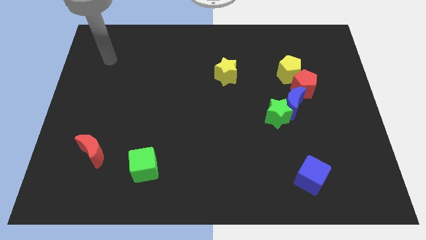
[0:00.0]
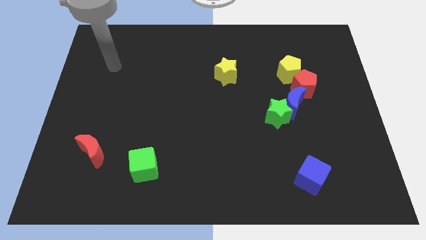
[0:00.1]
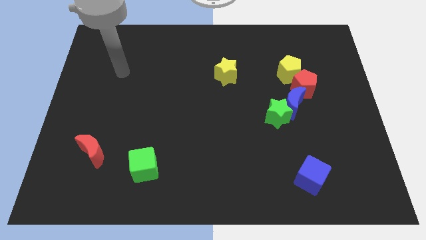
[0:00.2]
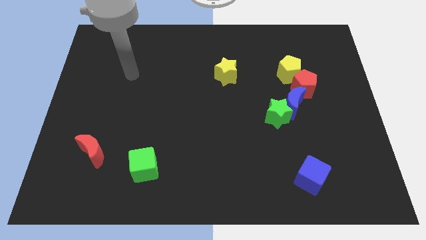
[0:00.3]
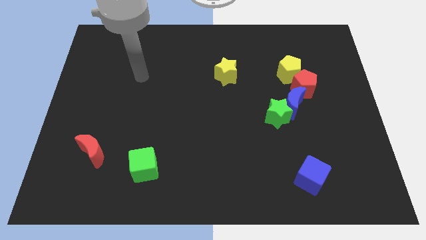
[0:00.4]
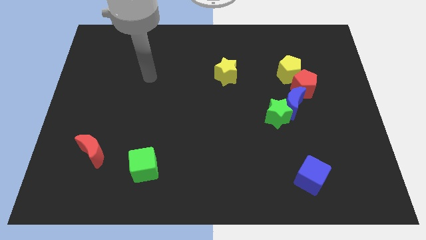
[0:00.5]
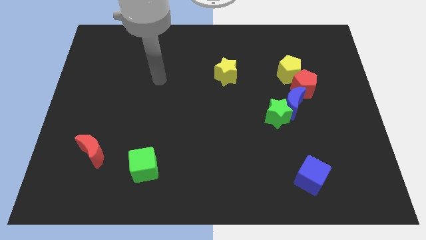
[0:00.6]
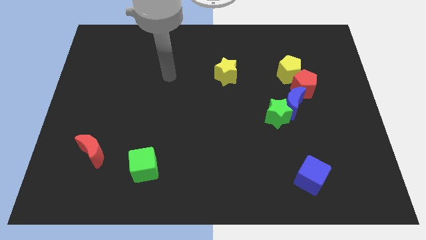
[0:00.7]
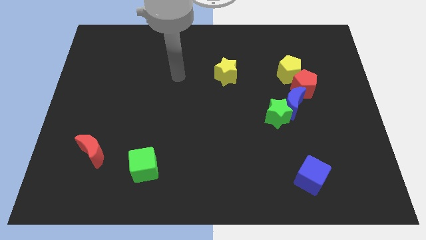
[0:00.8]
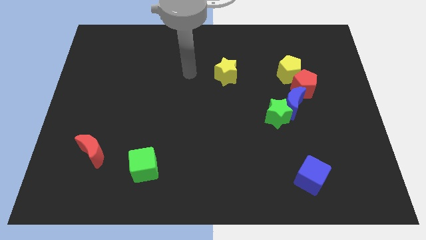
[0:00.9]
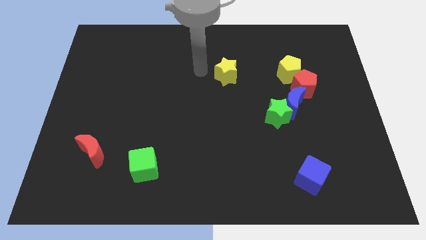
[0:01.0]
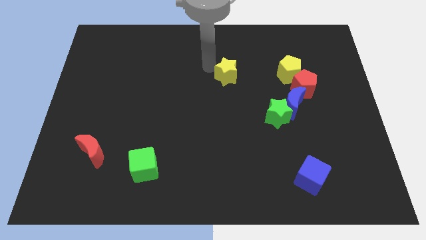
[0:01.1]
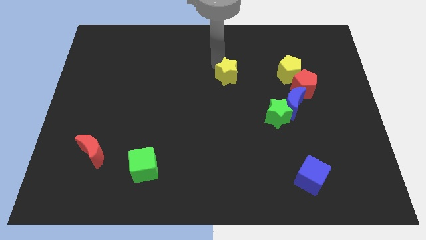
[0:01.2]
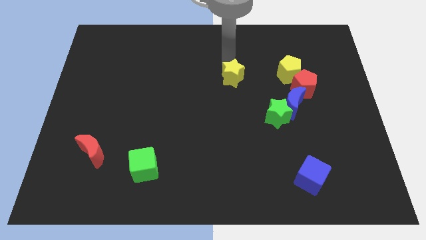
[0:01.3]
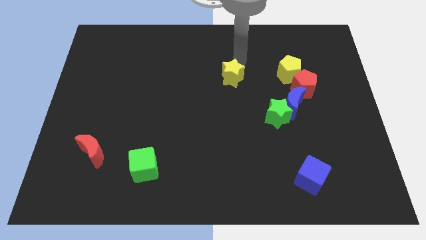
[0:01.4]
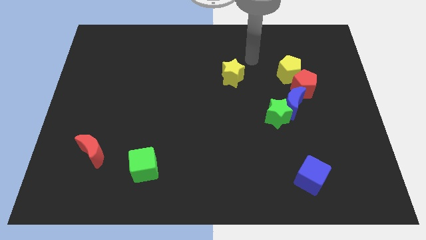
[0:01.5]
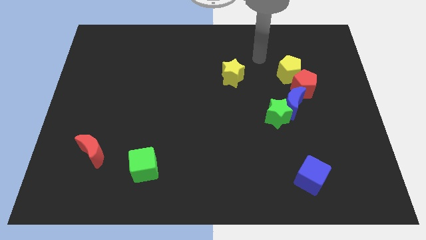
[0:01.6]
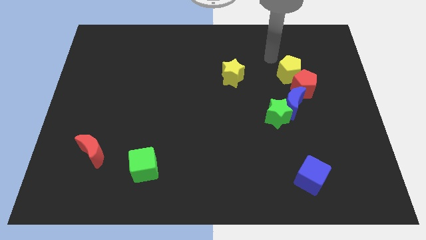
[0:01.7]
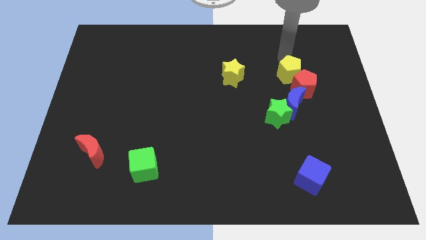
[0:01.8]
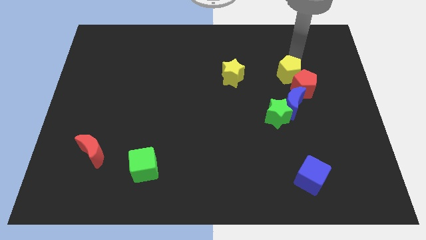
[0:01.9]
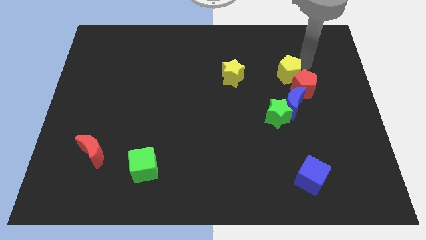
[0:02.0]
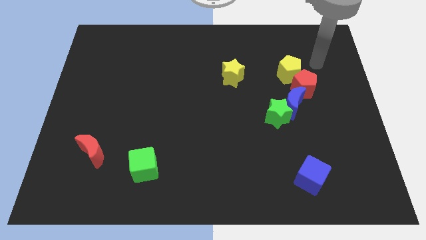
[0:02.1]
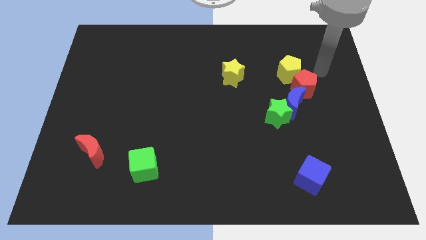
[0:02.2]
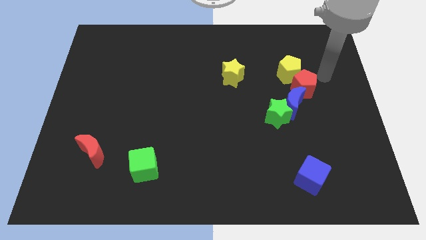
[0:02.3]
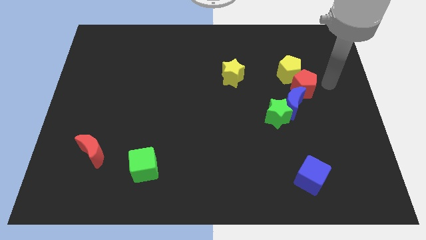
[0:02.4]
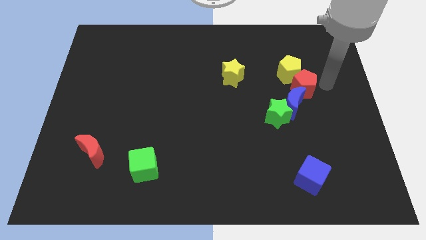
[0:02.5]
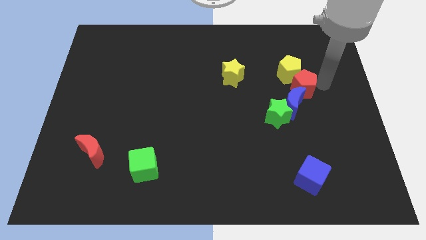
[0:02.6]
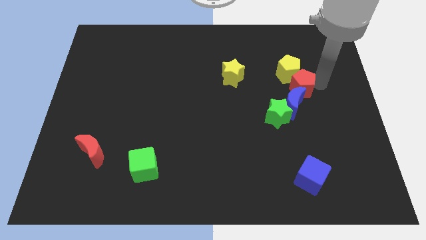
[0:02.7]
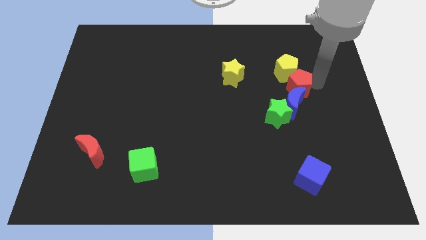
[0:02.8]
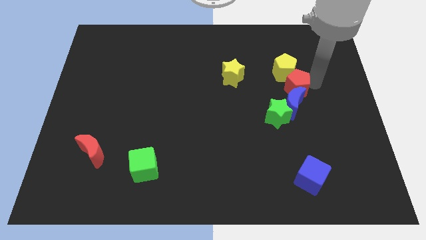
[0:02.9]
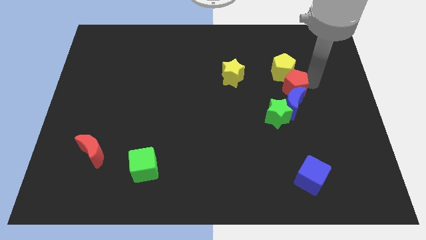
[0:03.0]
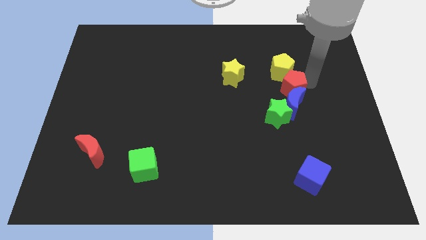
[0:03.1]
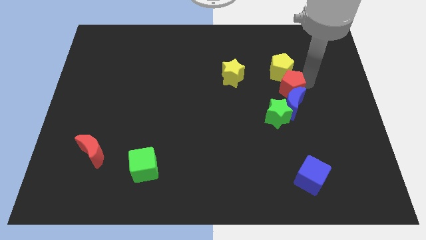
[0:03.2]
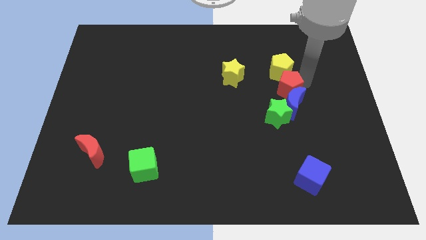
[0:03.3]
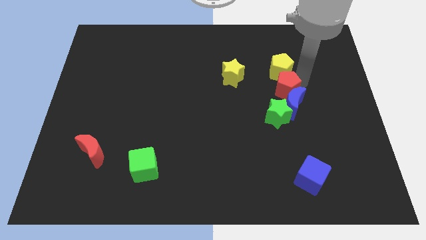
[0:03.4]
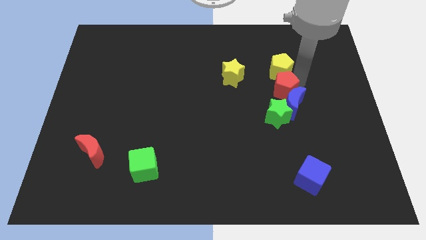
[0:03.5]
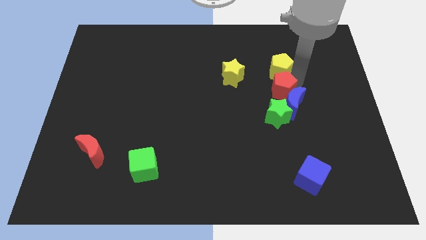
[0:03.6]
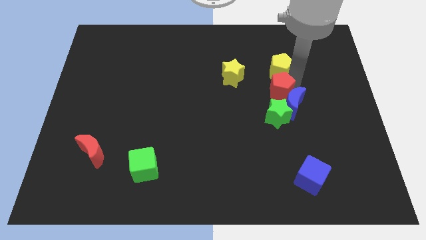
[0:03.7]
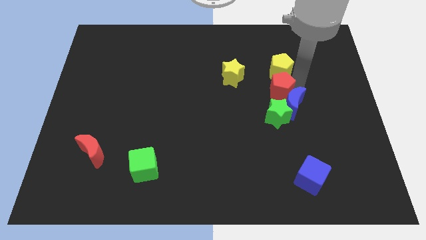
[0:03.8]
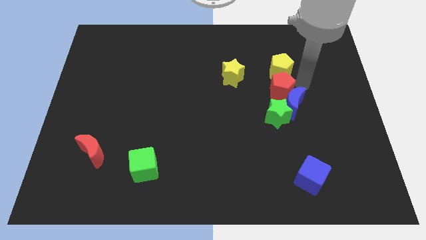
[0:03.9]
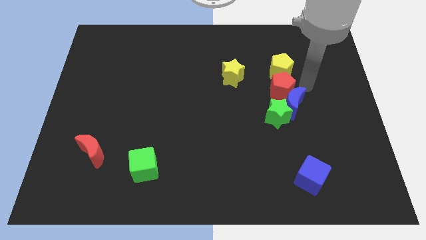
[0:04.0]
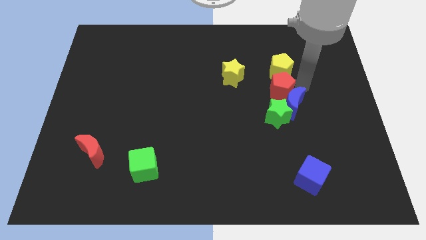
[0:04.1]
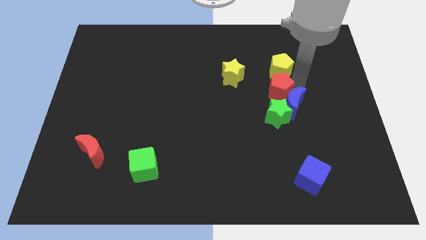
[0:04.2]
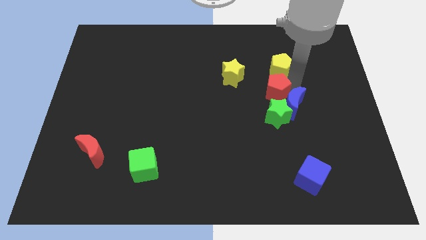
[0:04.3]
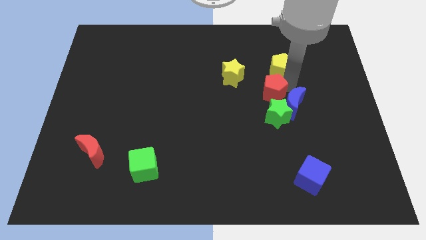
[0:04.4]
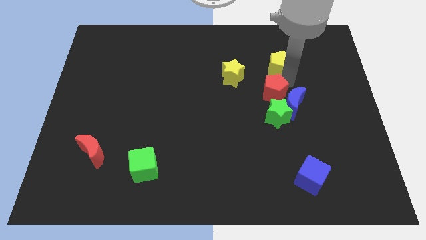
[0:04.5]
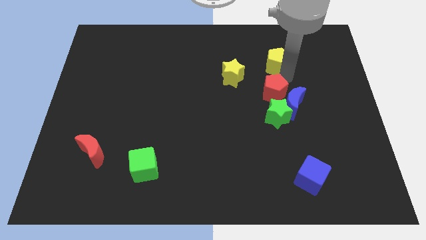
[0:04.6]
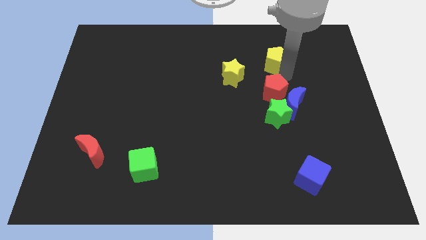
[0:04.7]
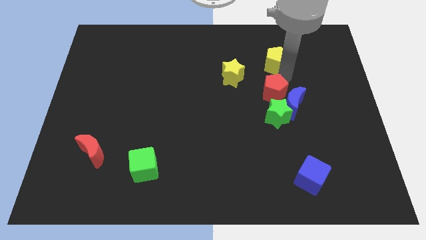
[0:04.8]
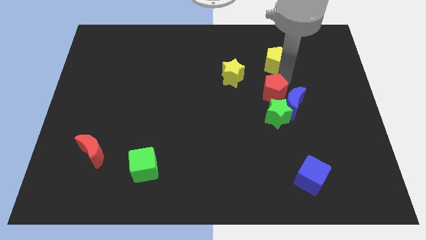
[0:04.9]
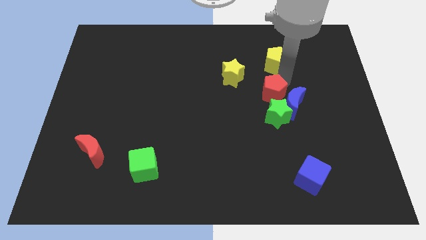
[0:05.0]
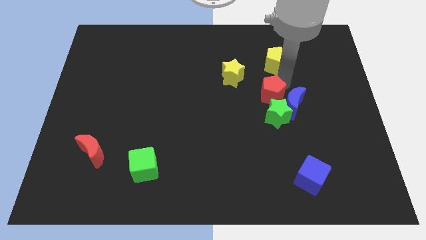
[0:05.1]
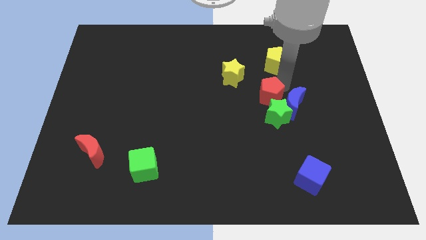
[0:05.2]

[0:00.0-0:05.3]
slightly move the red pentagon downwards and to the left diagonally

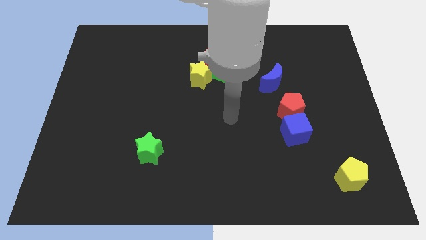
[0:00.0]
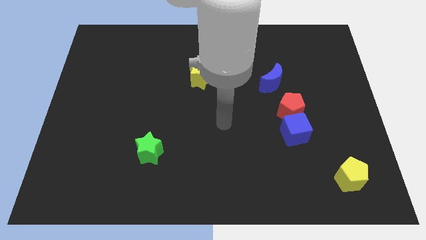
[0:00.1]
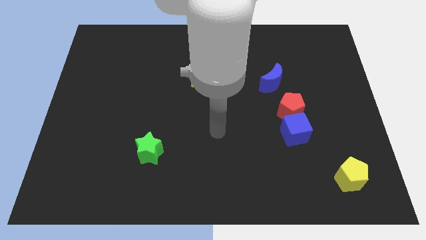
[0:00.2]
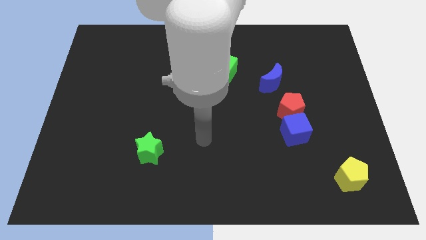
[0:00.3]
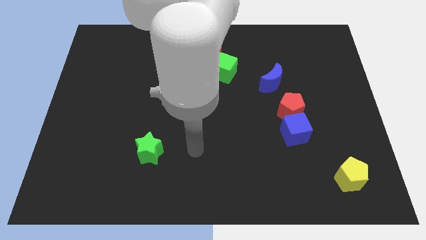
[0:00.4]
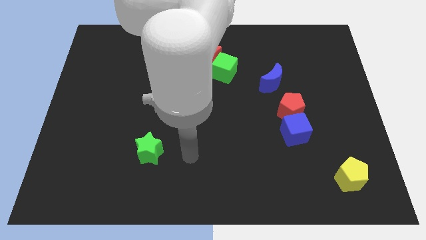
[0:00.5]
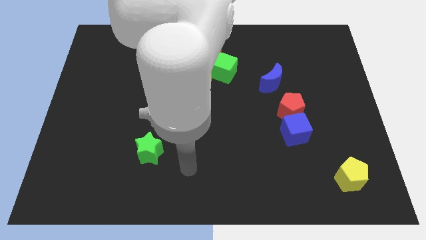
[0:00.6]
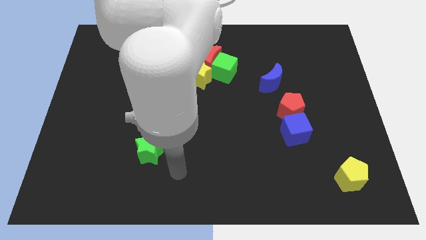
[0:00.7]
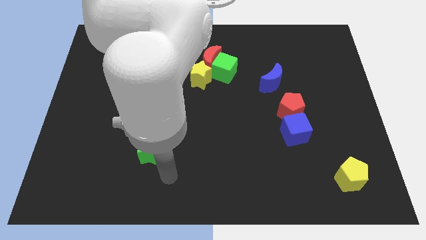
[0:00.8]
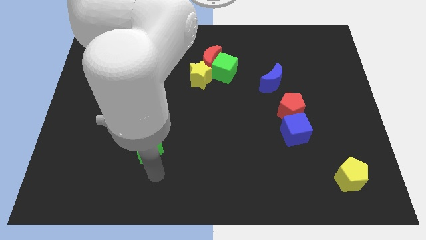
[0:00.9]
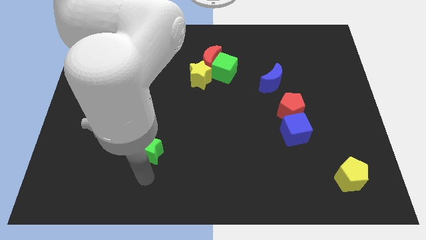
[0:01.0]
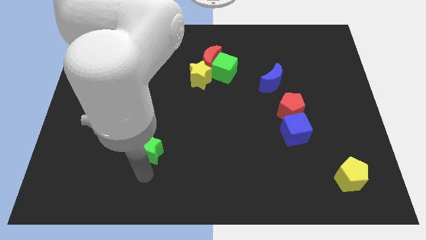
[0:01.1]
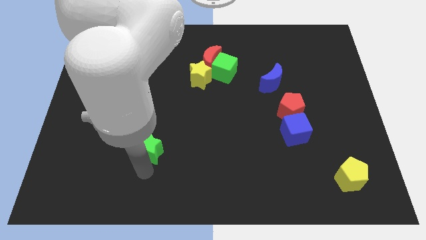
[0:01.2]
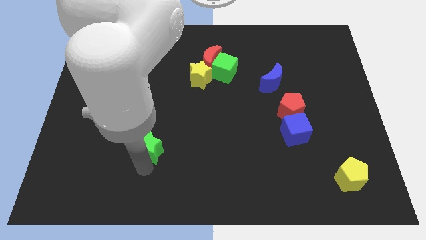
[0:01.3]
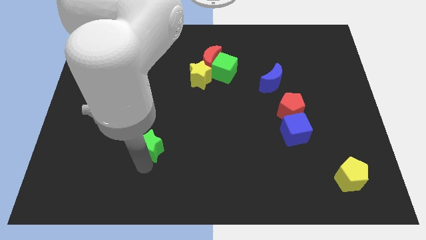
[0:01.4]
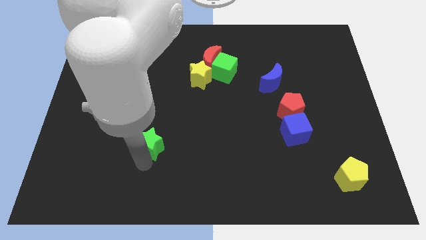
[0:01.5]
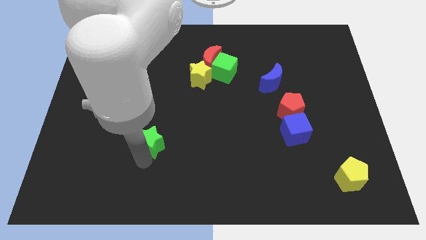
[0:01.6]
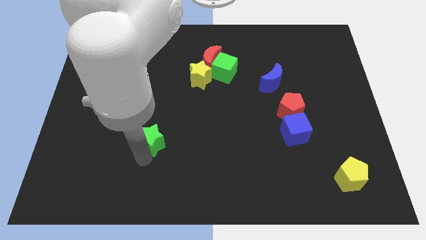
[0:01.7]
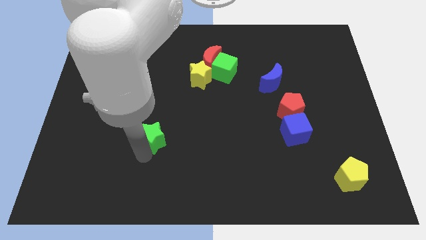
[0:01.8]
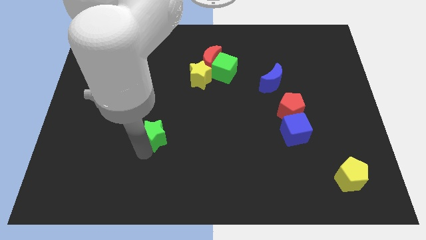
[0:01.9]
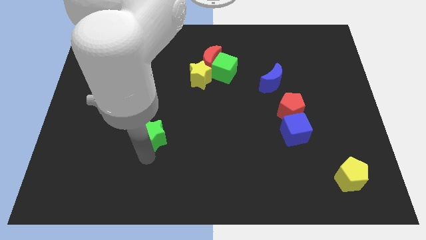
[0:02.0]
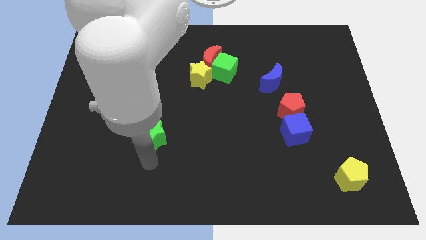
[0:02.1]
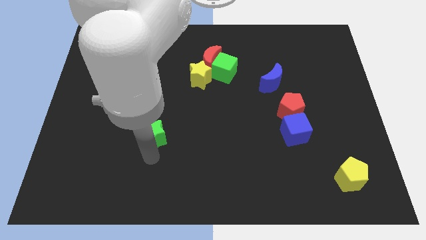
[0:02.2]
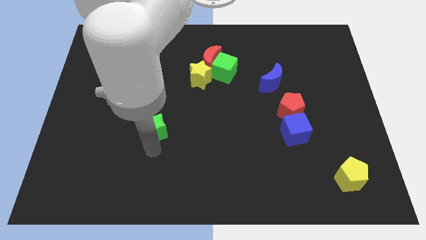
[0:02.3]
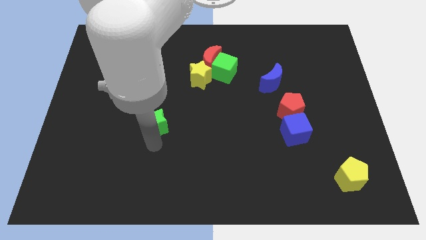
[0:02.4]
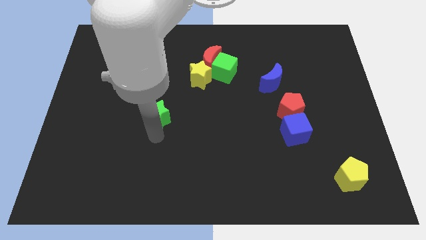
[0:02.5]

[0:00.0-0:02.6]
push the green star up slightly
